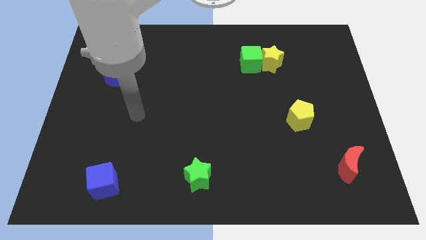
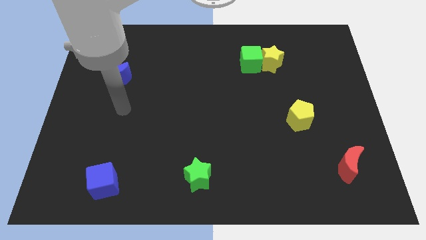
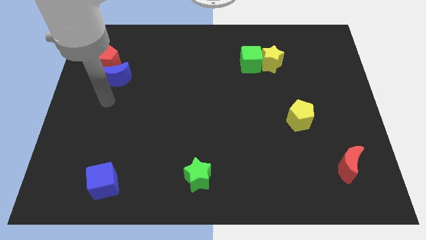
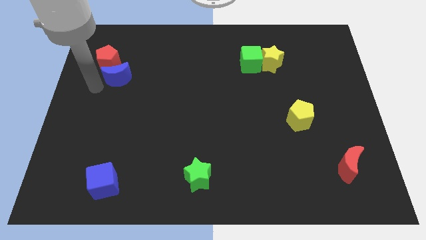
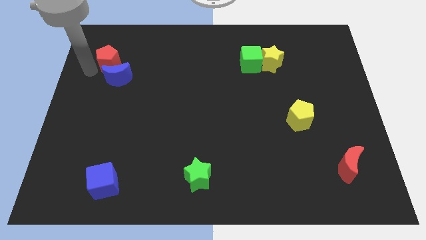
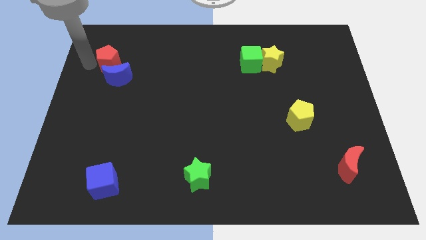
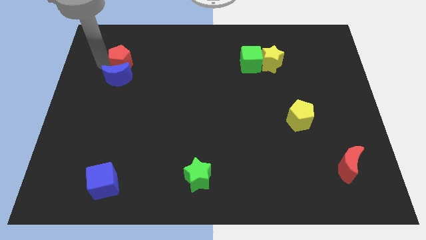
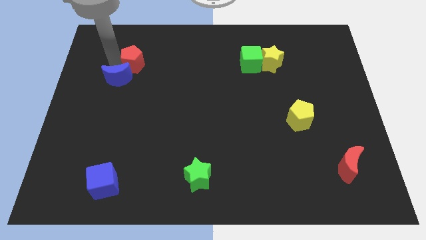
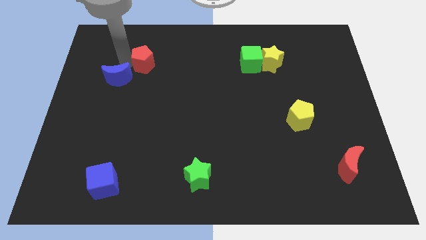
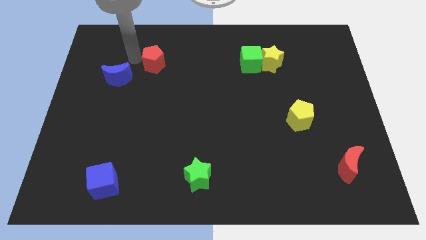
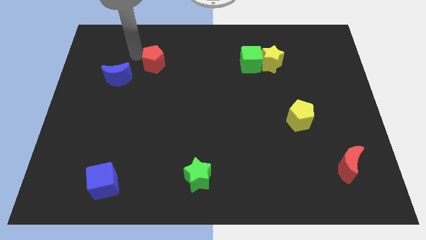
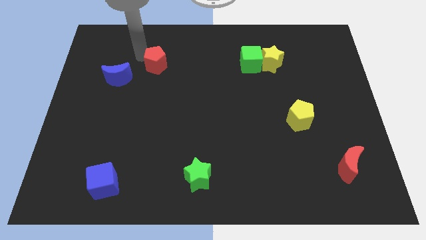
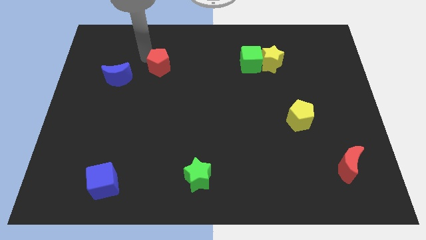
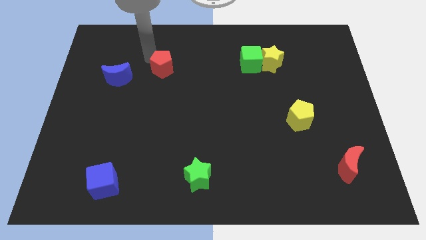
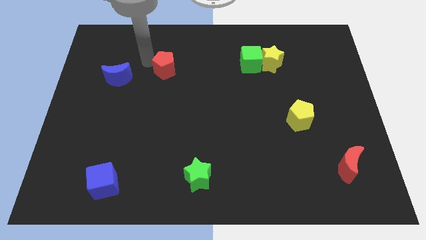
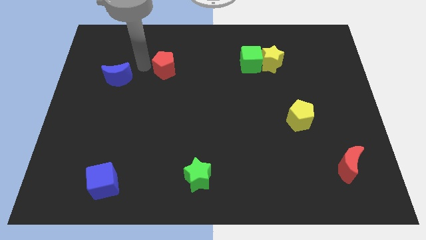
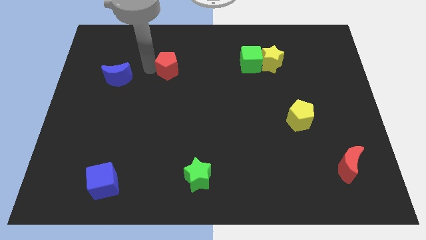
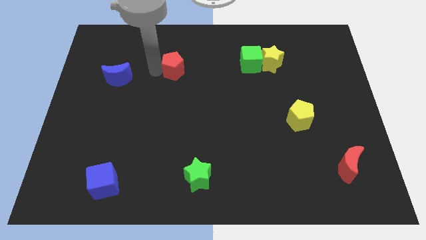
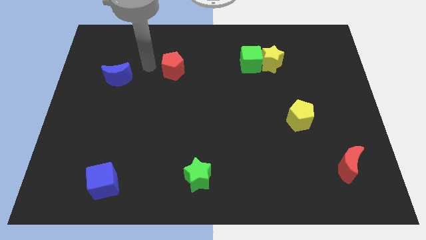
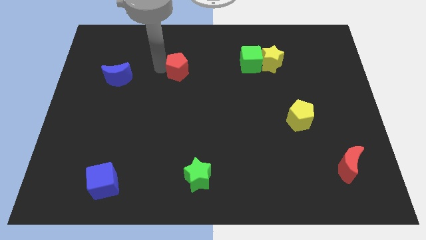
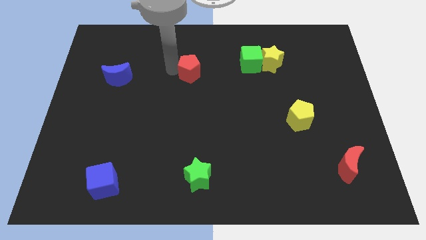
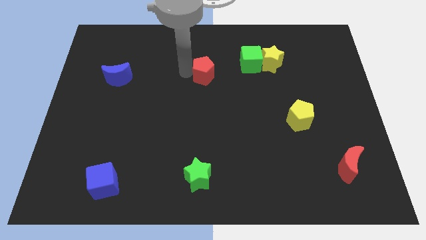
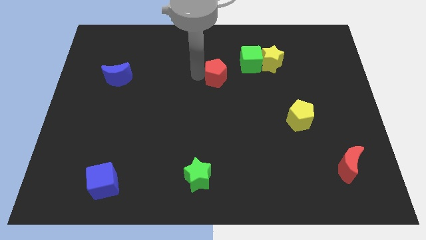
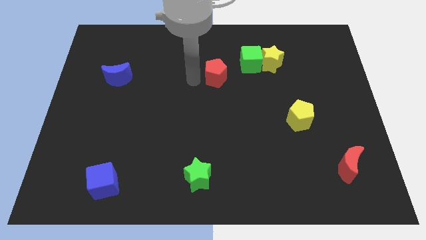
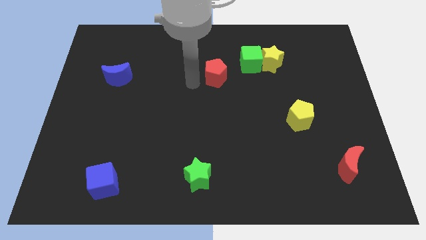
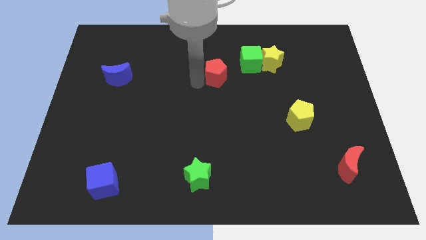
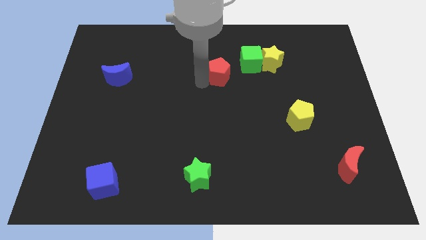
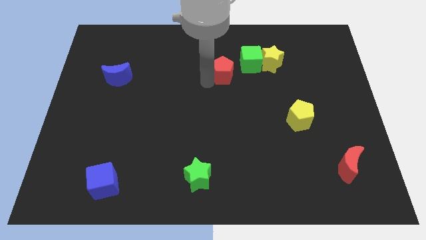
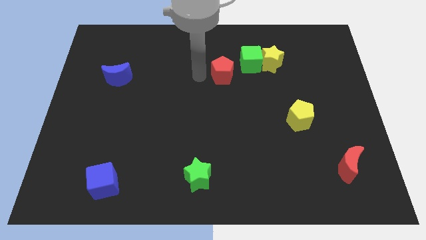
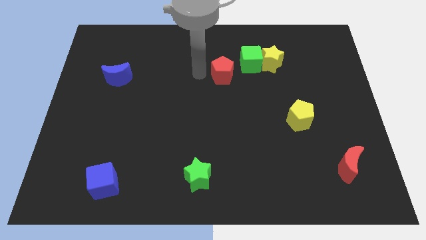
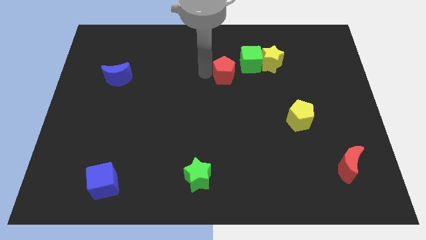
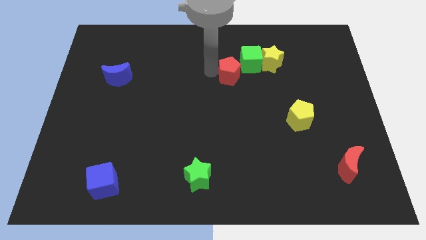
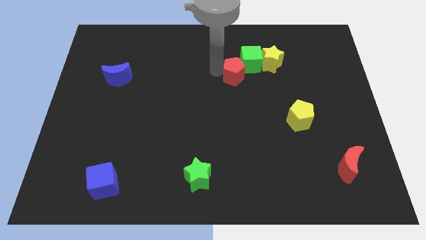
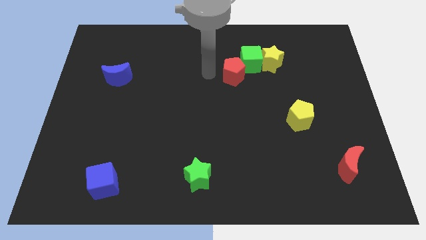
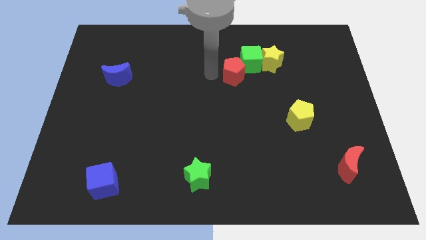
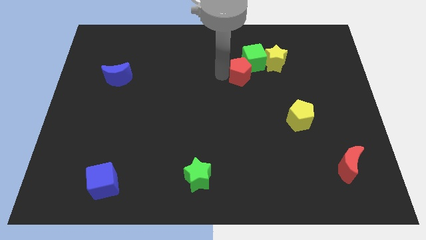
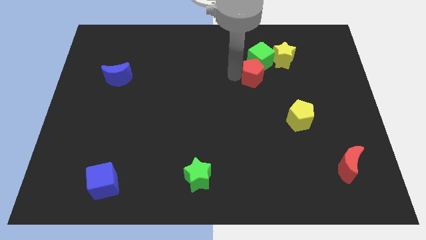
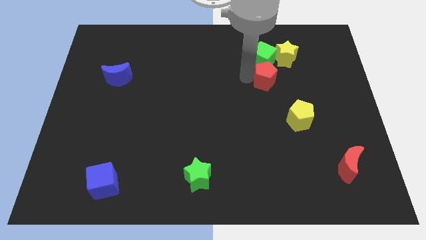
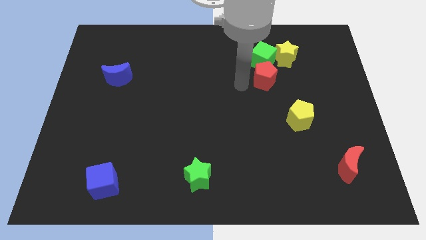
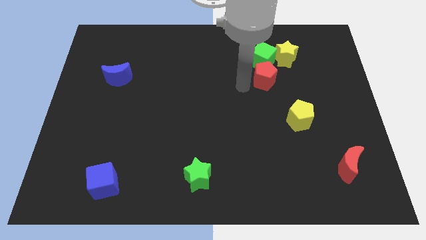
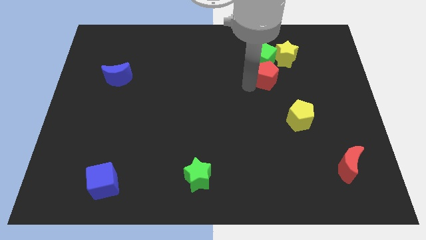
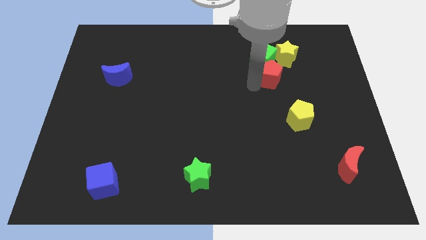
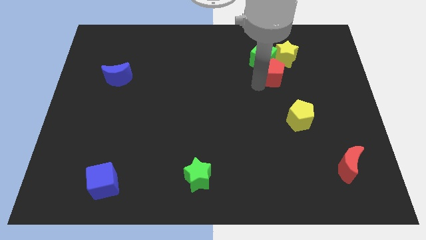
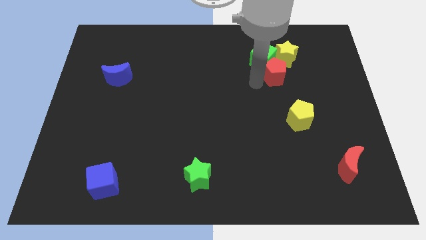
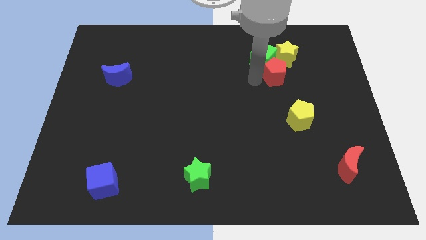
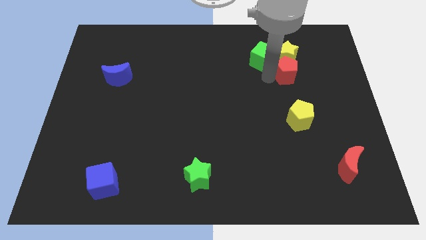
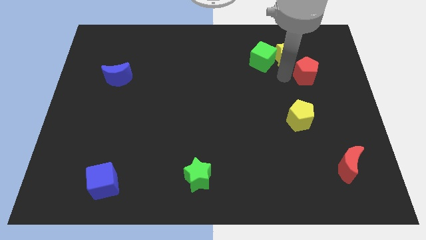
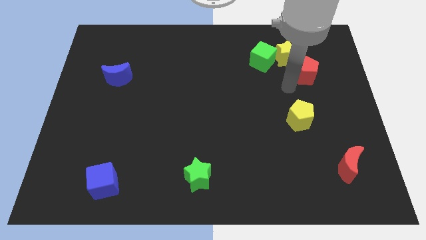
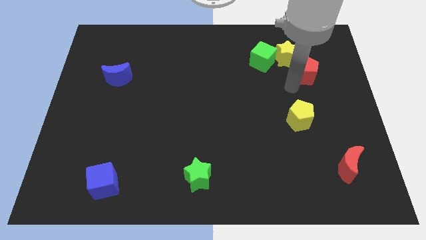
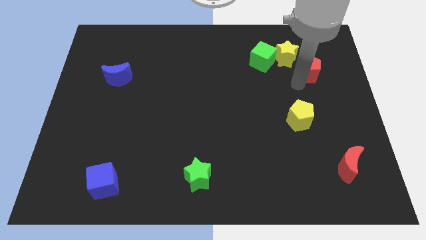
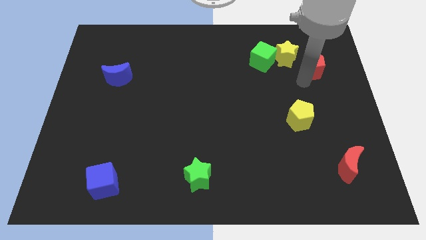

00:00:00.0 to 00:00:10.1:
put the red pentagon right of the yellow star

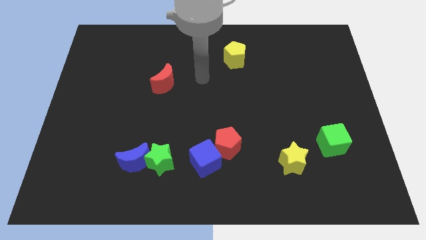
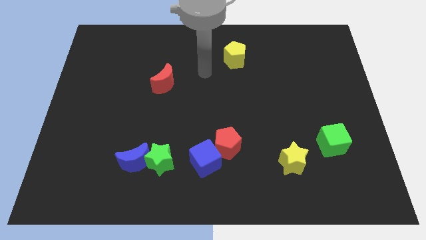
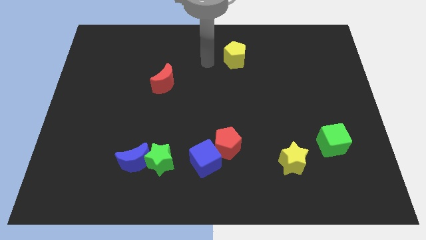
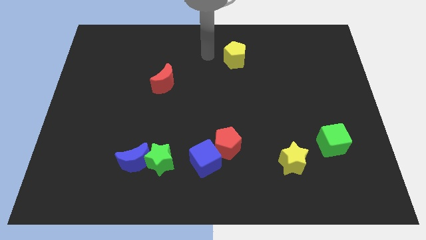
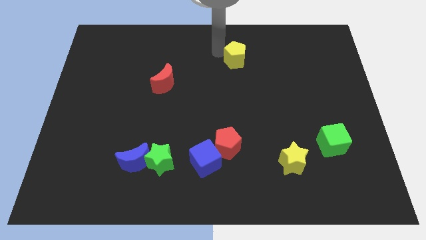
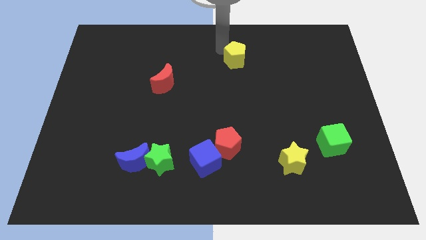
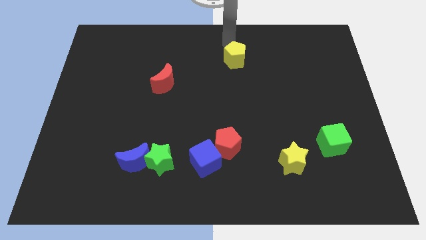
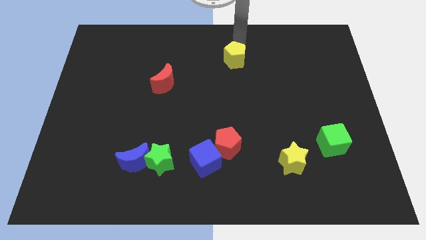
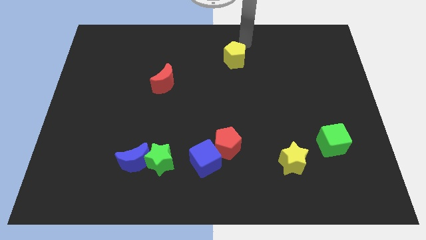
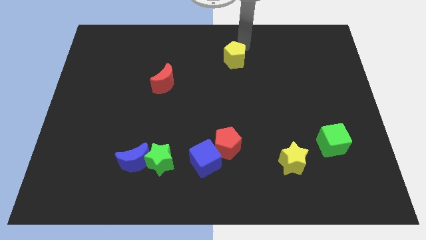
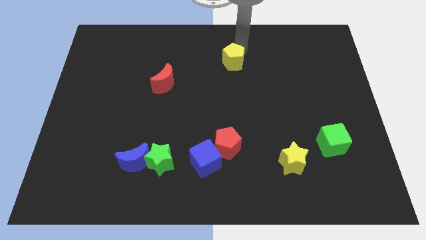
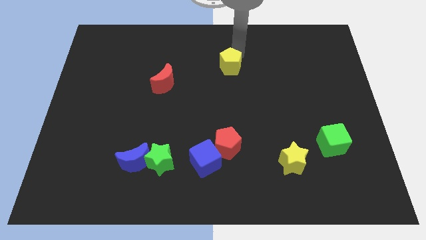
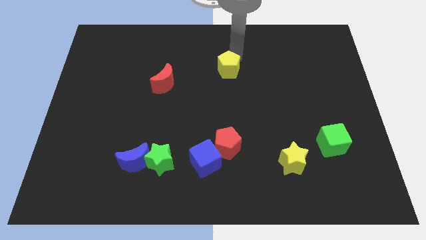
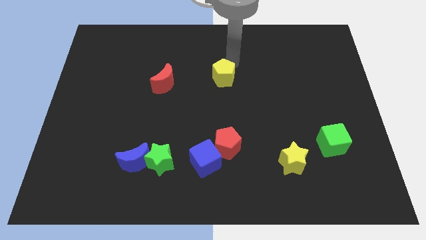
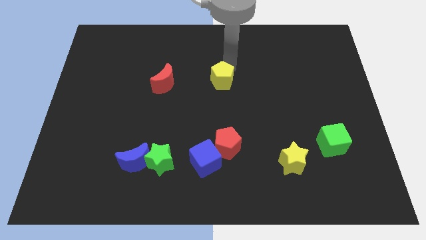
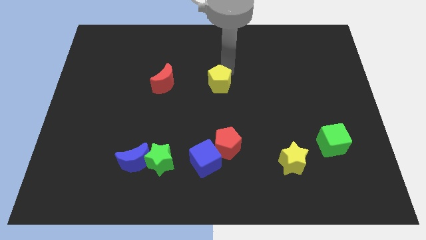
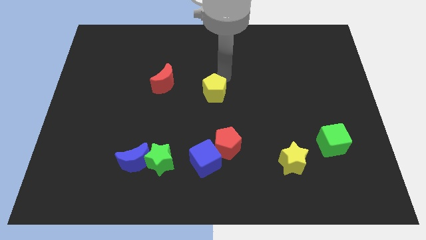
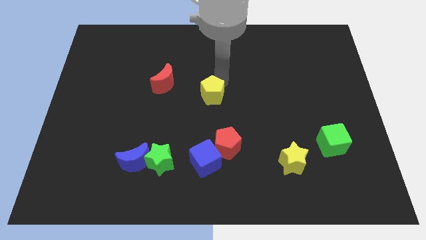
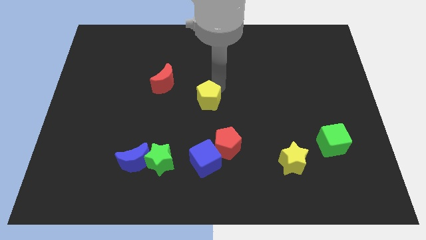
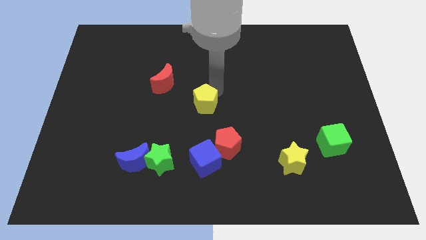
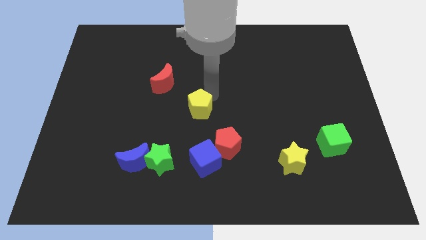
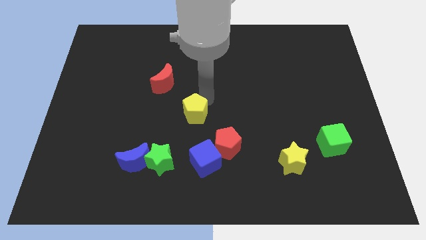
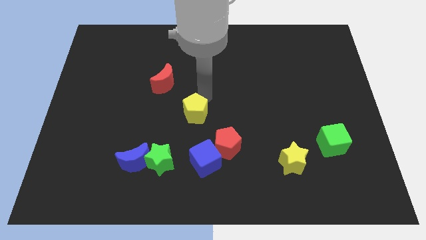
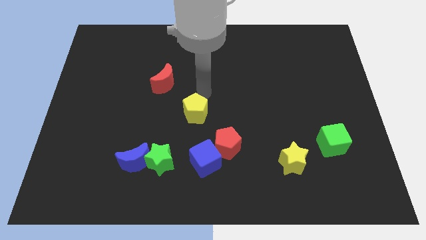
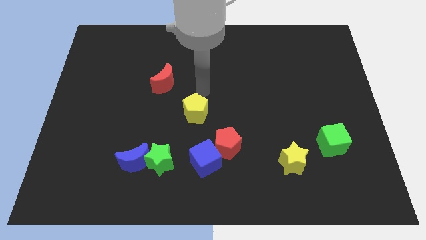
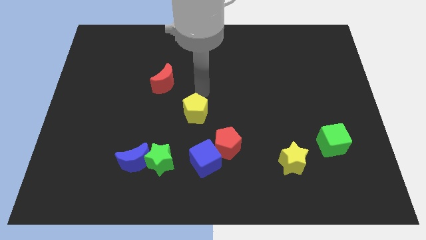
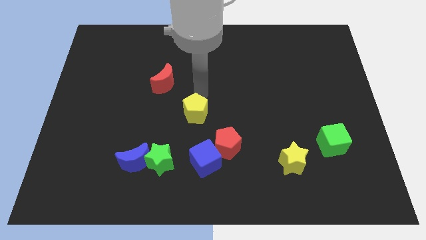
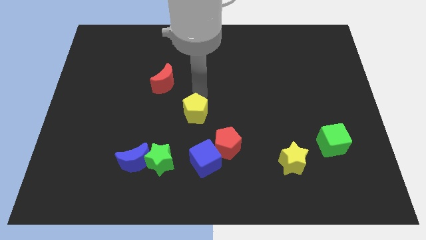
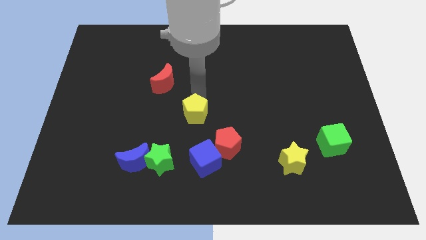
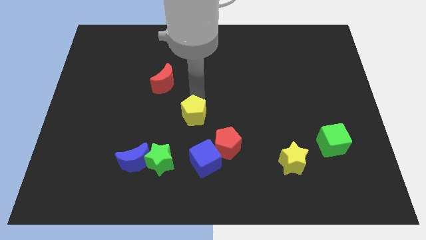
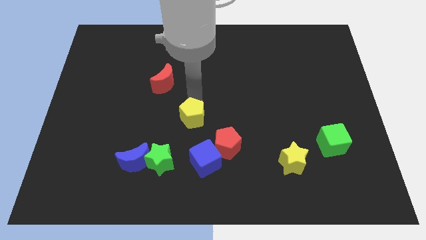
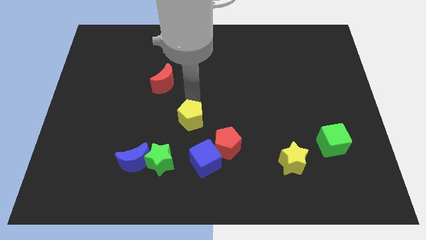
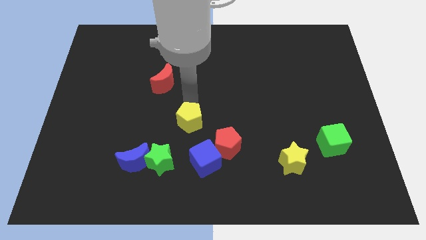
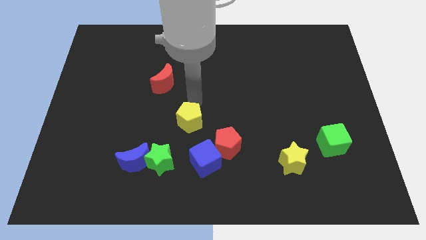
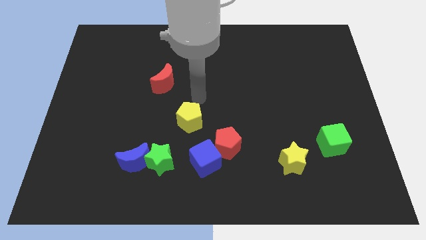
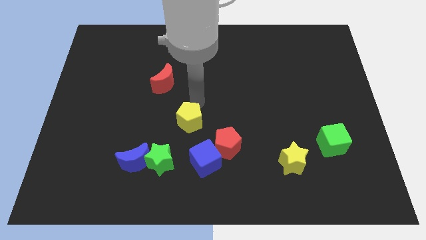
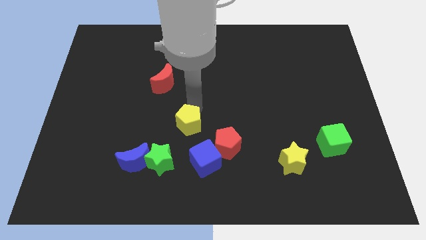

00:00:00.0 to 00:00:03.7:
move the yellow pentagon to the top left of the blue cube
